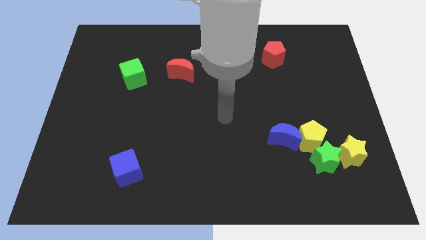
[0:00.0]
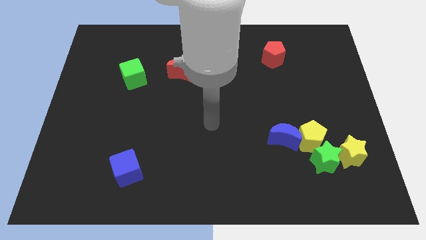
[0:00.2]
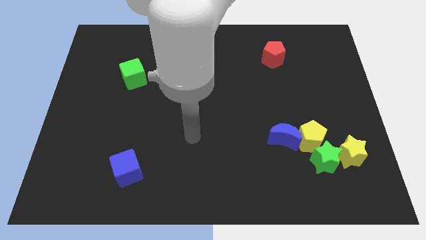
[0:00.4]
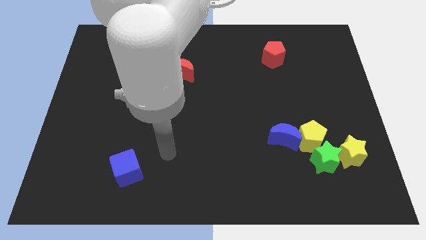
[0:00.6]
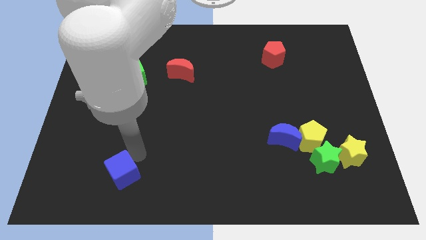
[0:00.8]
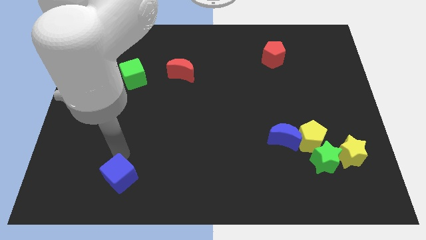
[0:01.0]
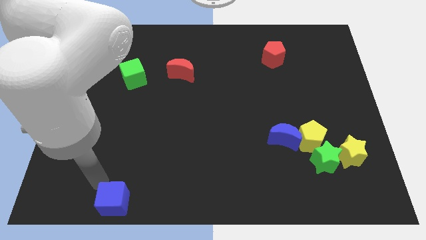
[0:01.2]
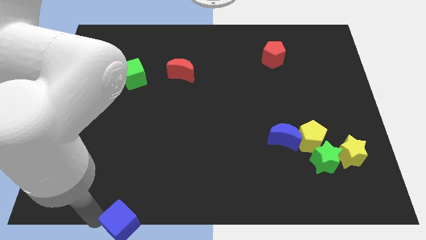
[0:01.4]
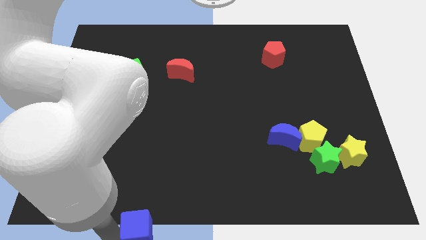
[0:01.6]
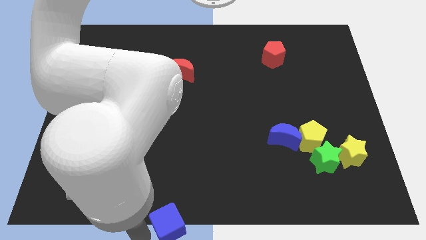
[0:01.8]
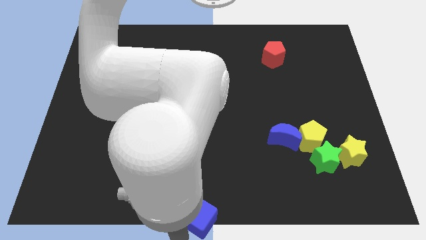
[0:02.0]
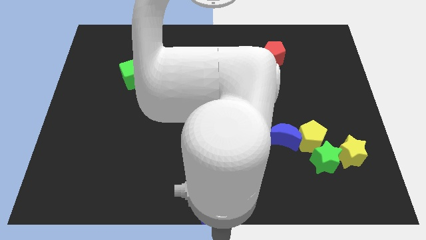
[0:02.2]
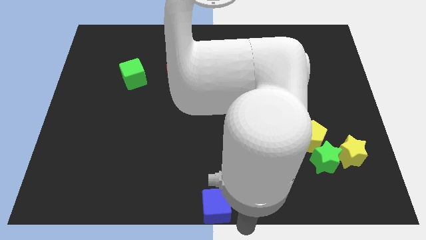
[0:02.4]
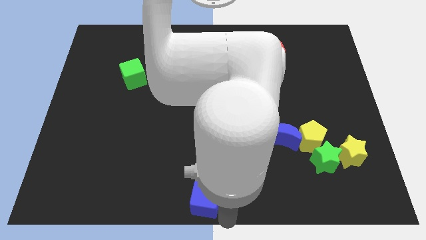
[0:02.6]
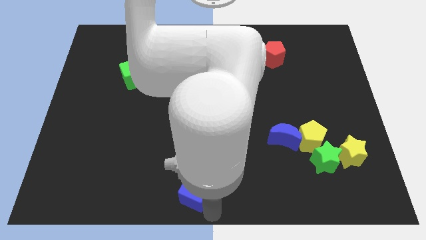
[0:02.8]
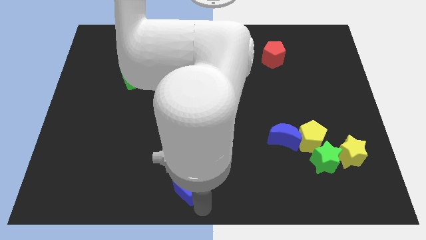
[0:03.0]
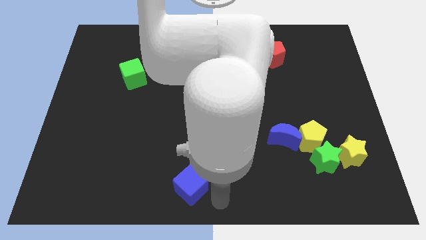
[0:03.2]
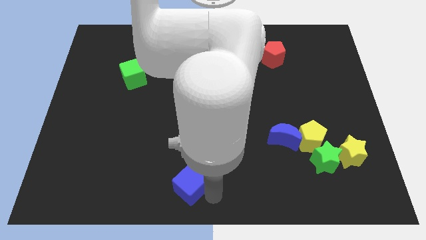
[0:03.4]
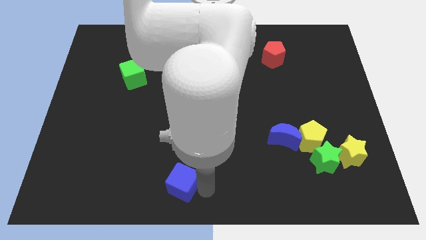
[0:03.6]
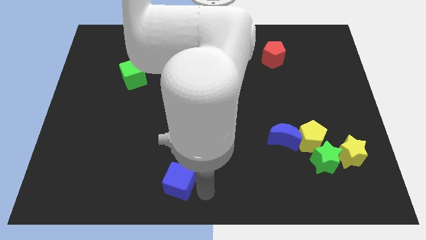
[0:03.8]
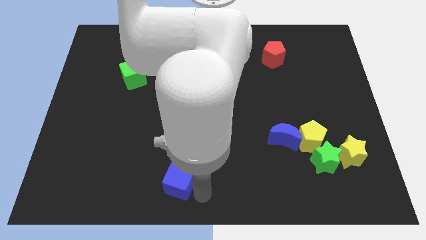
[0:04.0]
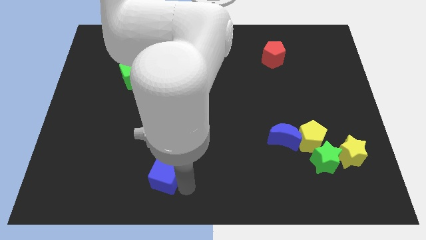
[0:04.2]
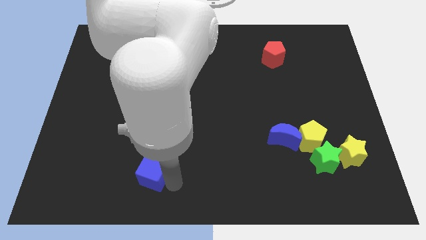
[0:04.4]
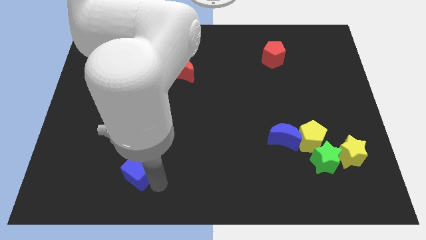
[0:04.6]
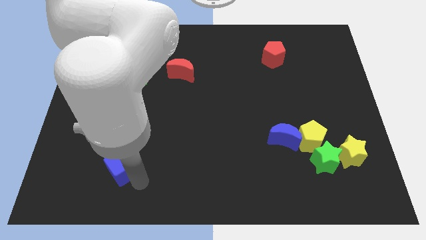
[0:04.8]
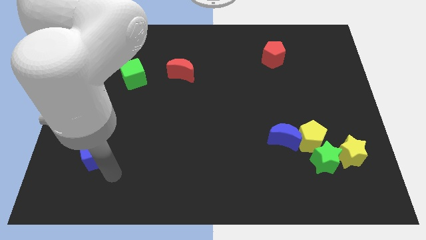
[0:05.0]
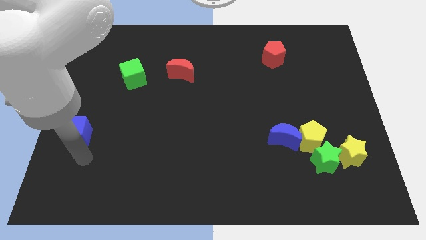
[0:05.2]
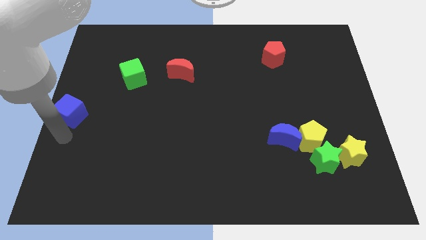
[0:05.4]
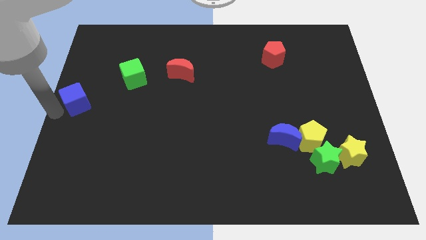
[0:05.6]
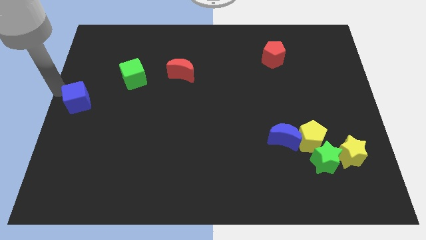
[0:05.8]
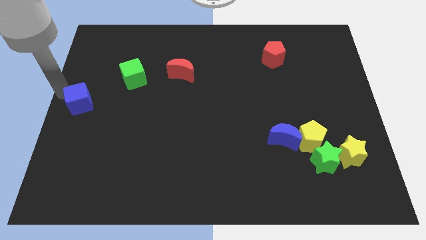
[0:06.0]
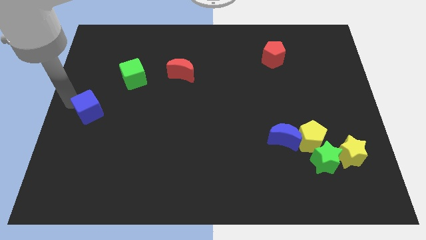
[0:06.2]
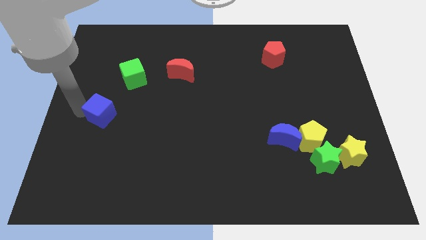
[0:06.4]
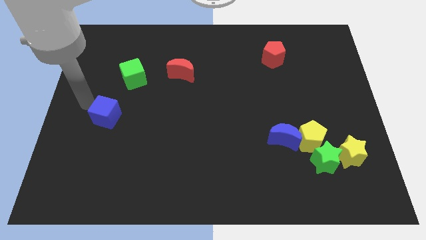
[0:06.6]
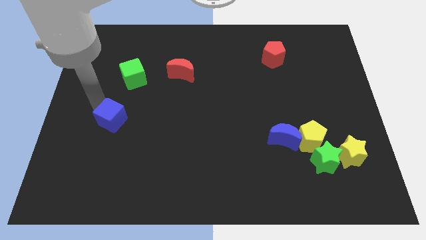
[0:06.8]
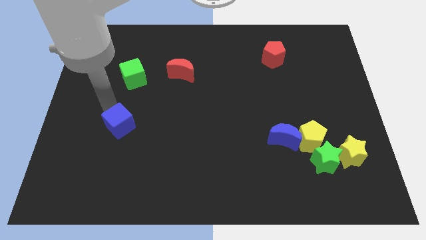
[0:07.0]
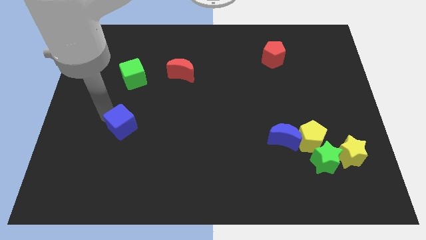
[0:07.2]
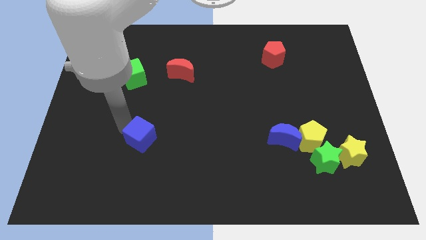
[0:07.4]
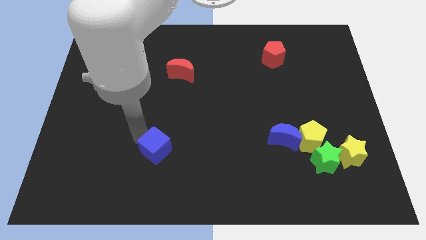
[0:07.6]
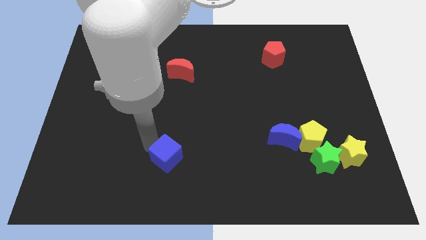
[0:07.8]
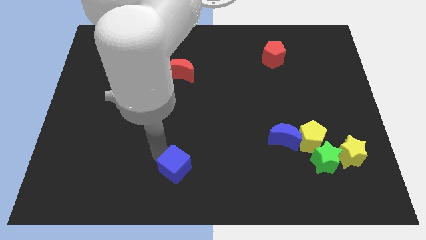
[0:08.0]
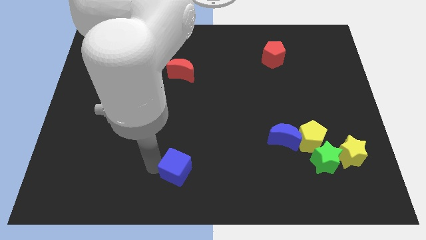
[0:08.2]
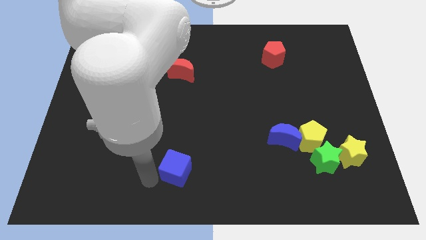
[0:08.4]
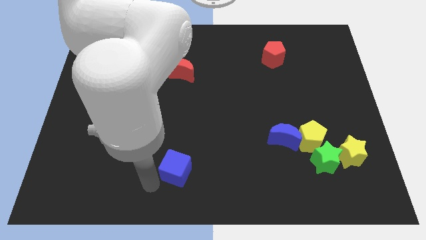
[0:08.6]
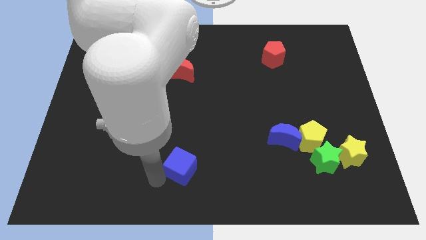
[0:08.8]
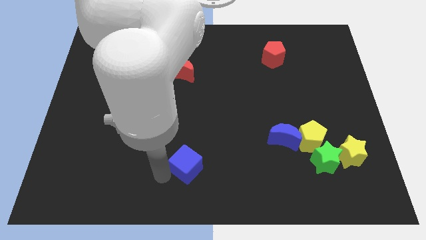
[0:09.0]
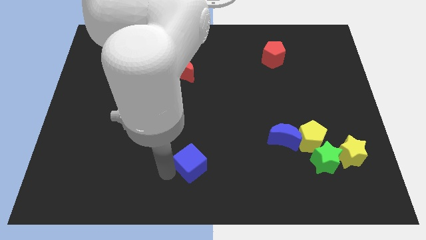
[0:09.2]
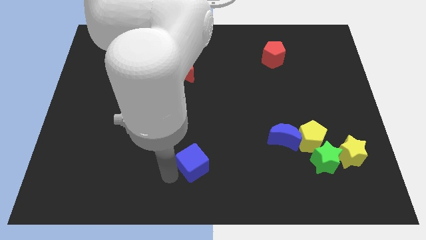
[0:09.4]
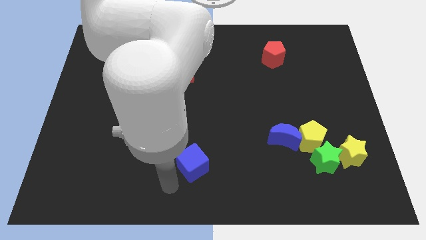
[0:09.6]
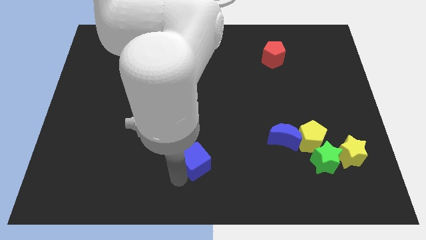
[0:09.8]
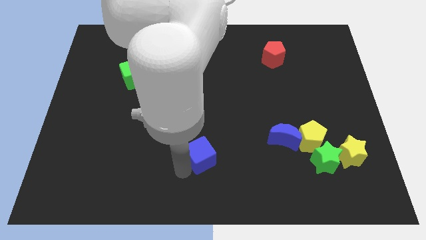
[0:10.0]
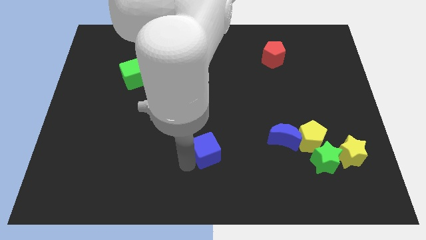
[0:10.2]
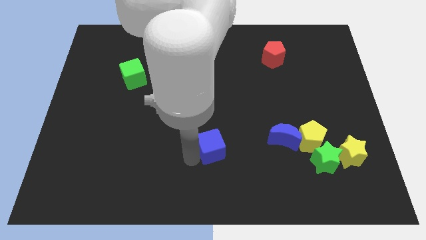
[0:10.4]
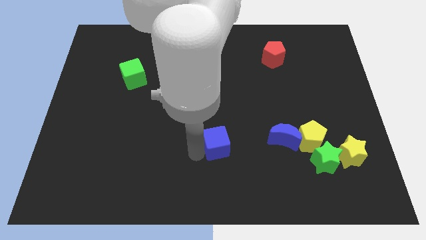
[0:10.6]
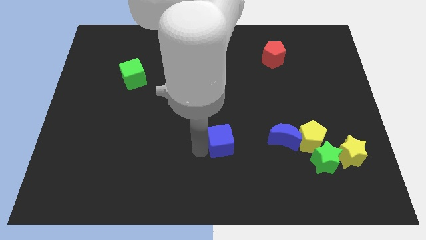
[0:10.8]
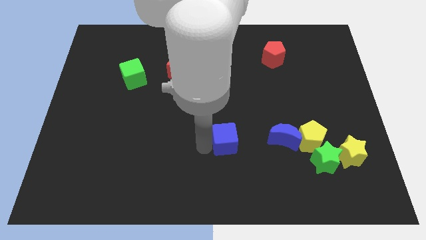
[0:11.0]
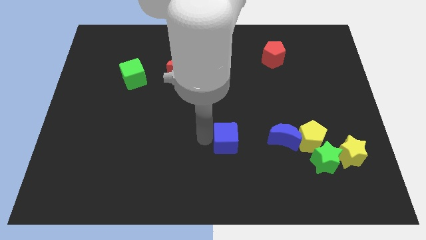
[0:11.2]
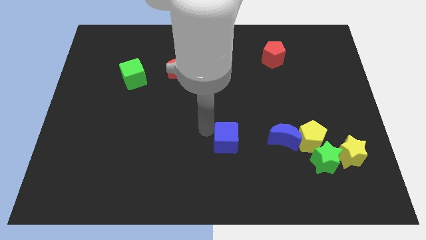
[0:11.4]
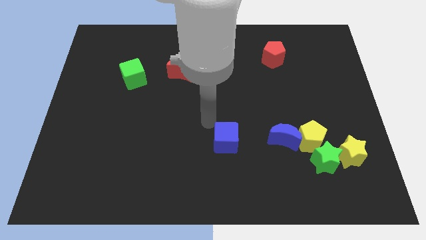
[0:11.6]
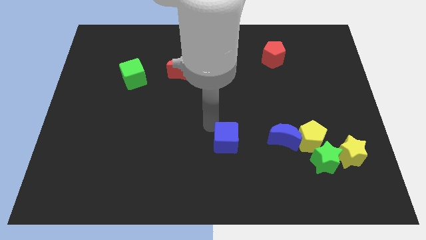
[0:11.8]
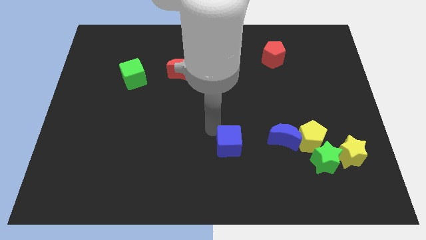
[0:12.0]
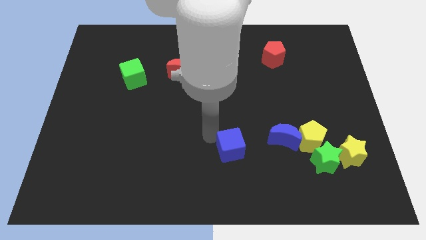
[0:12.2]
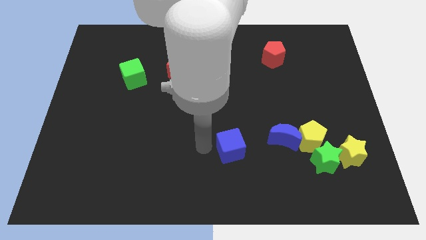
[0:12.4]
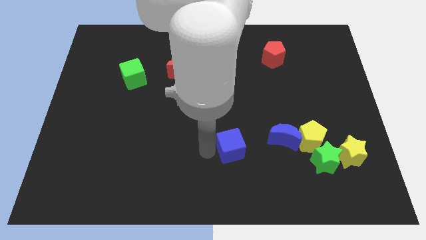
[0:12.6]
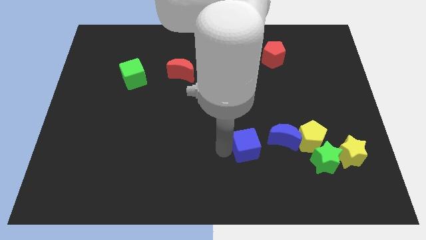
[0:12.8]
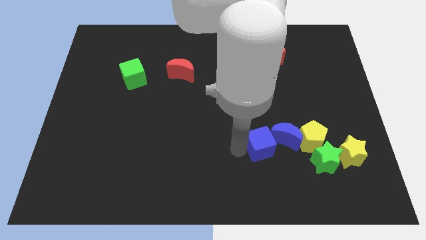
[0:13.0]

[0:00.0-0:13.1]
slide the blue cube to the blue moon

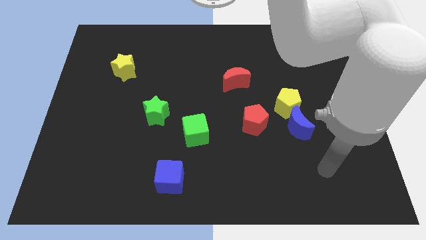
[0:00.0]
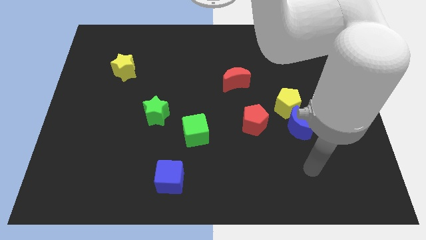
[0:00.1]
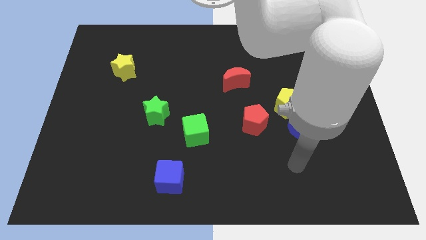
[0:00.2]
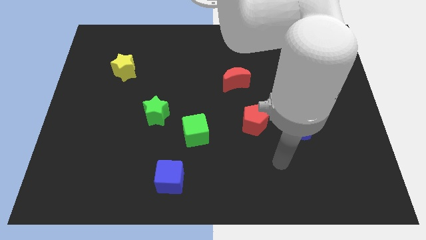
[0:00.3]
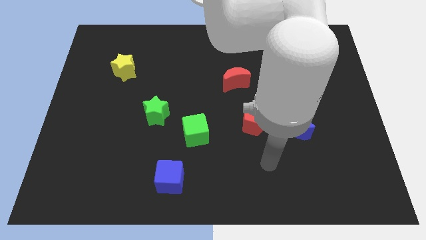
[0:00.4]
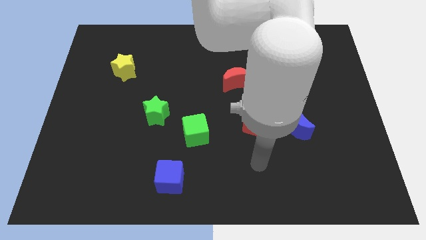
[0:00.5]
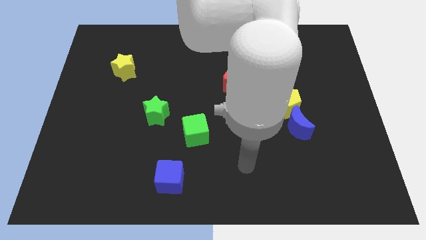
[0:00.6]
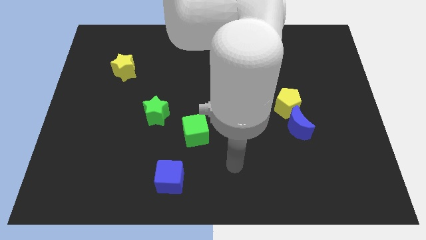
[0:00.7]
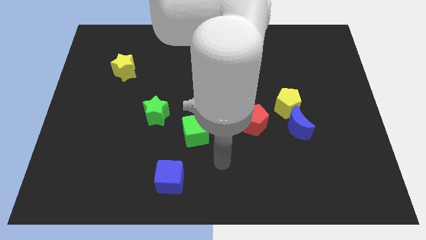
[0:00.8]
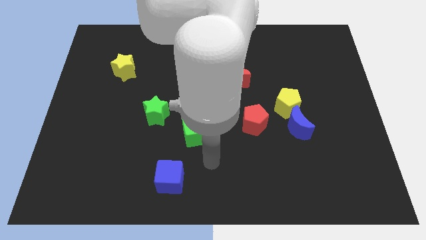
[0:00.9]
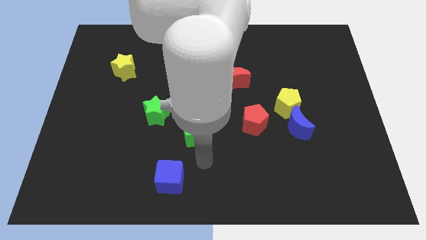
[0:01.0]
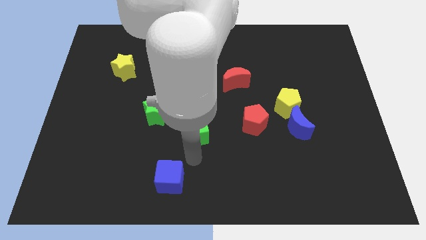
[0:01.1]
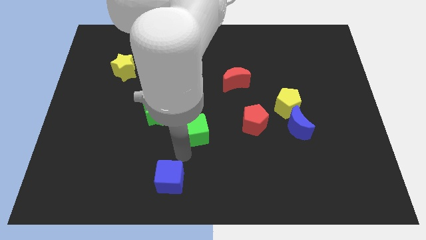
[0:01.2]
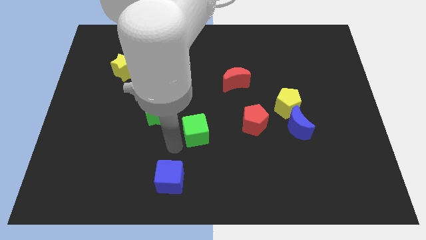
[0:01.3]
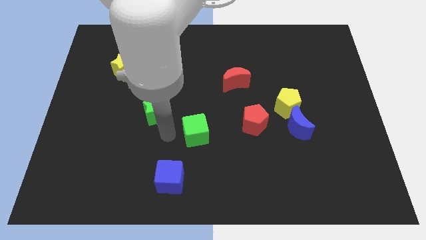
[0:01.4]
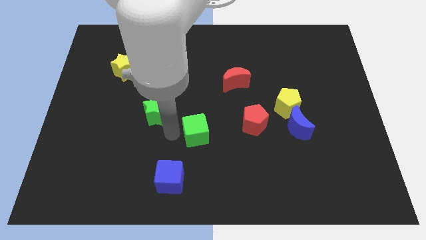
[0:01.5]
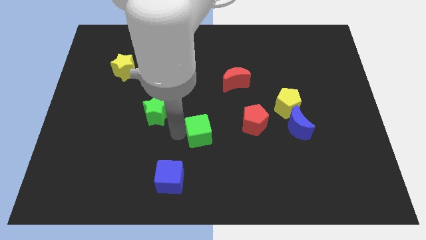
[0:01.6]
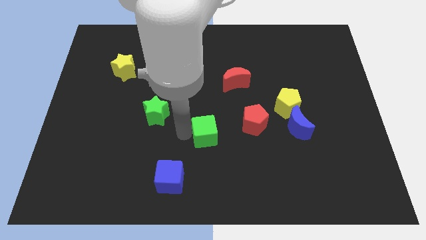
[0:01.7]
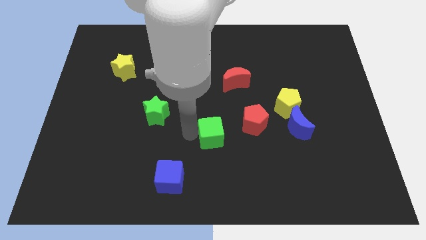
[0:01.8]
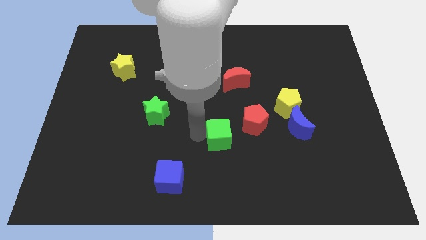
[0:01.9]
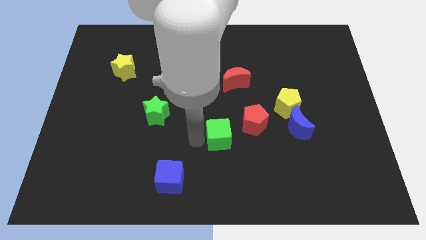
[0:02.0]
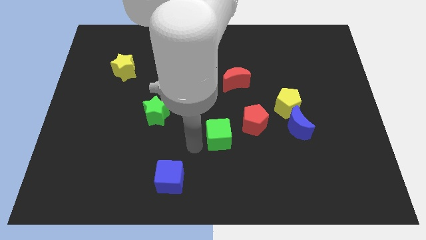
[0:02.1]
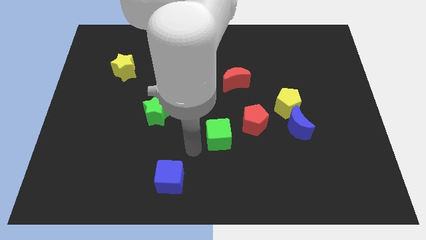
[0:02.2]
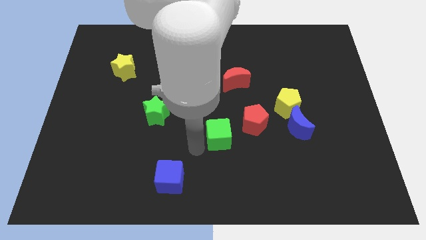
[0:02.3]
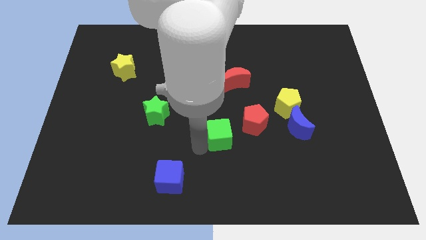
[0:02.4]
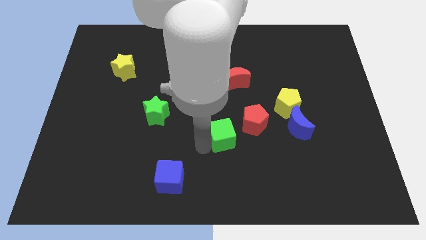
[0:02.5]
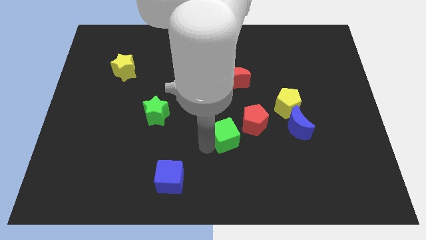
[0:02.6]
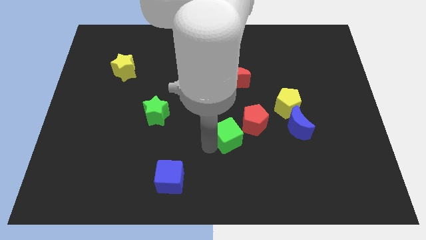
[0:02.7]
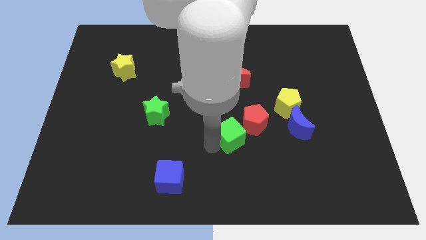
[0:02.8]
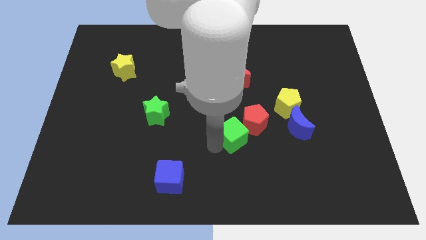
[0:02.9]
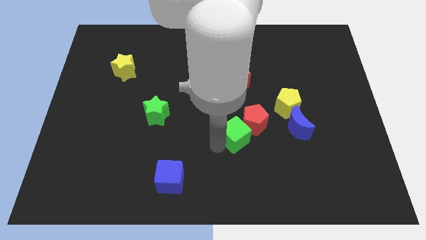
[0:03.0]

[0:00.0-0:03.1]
push the green cube to the red pentagon
